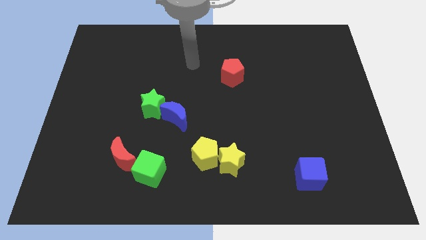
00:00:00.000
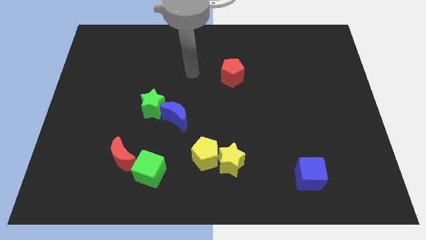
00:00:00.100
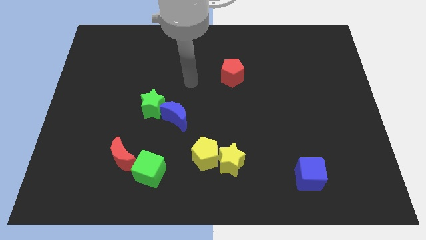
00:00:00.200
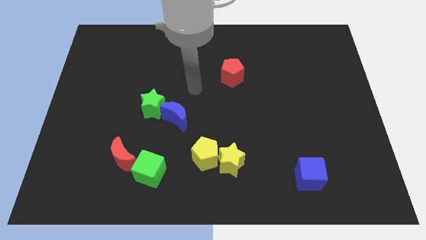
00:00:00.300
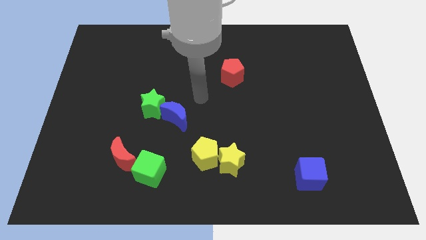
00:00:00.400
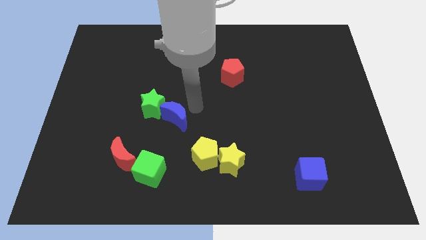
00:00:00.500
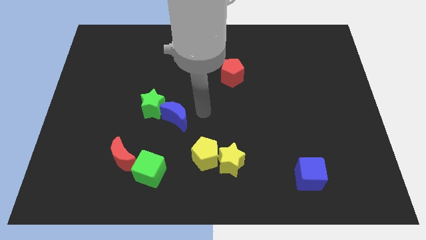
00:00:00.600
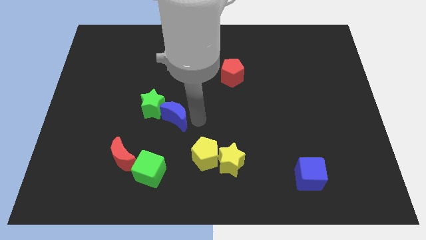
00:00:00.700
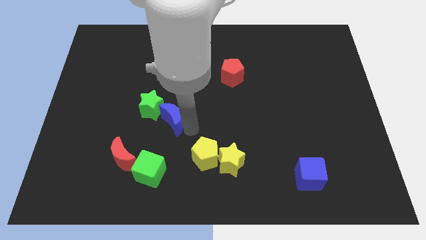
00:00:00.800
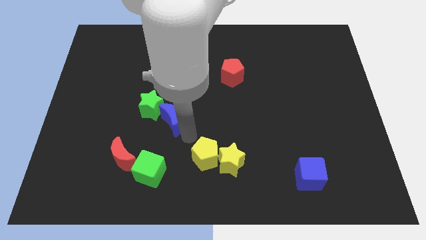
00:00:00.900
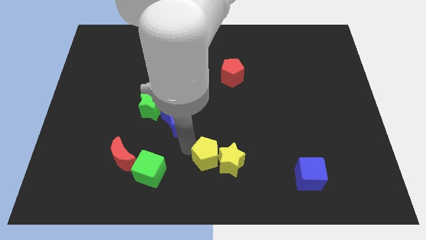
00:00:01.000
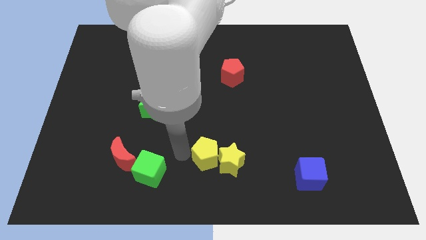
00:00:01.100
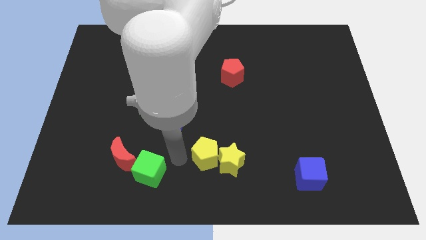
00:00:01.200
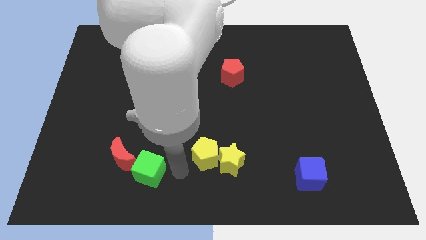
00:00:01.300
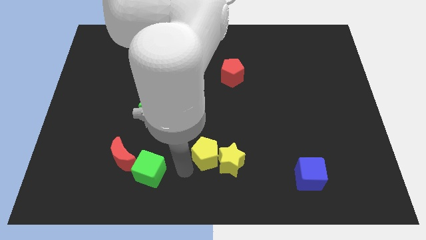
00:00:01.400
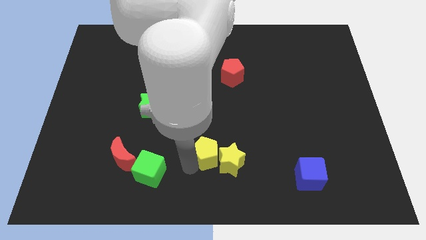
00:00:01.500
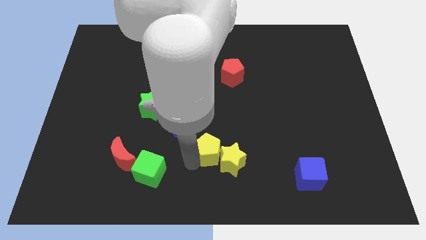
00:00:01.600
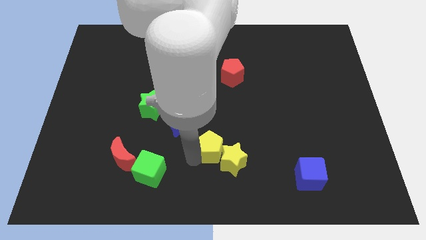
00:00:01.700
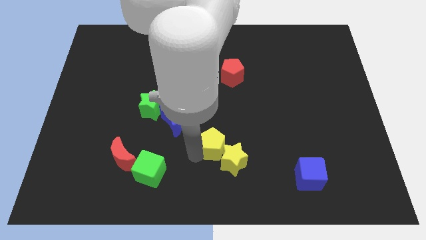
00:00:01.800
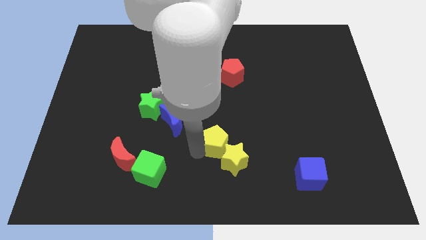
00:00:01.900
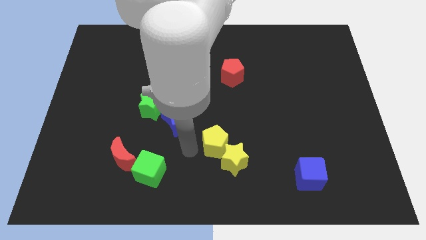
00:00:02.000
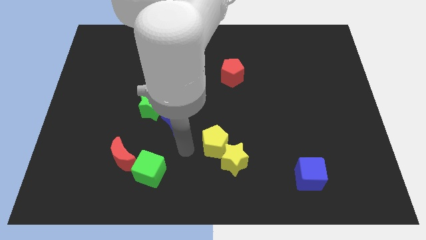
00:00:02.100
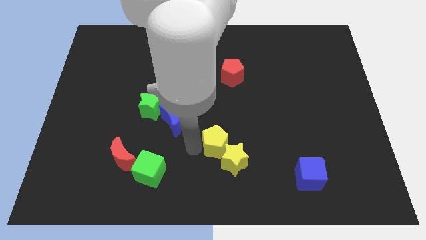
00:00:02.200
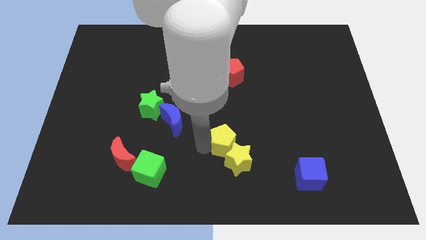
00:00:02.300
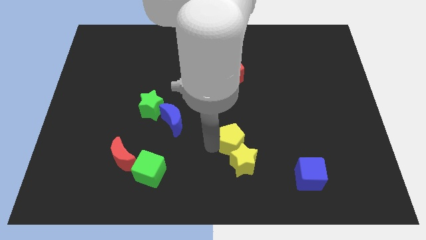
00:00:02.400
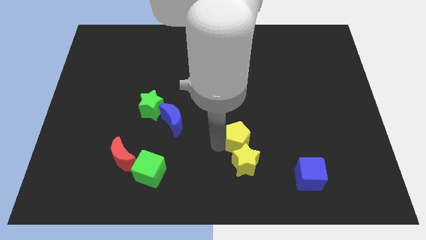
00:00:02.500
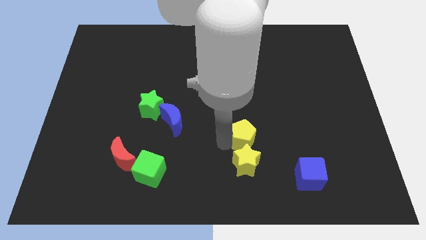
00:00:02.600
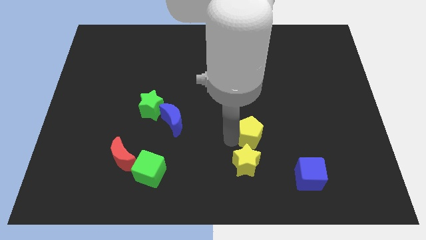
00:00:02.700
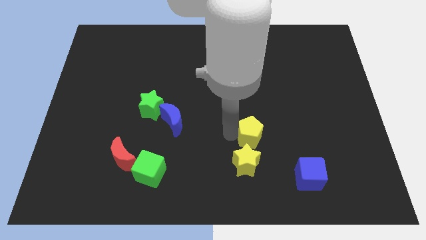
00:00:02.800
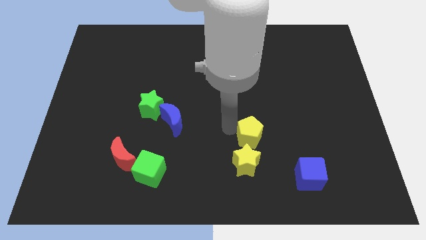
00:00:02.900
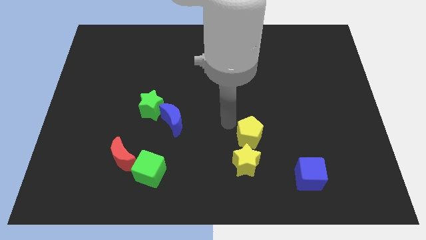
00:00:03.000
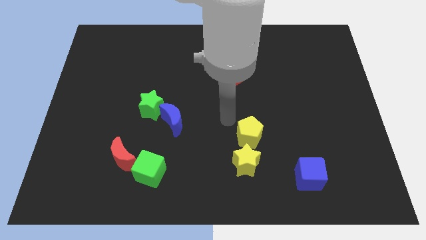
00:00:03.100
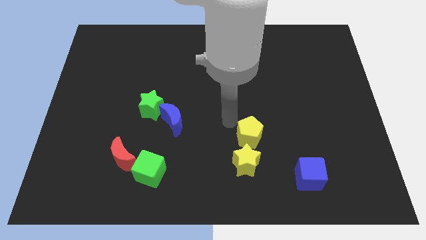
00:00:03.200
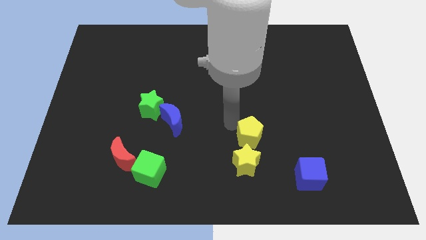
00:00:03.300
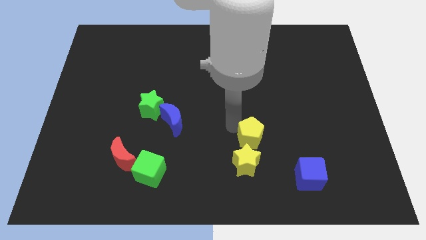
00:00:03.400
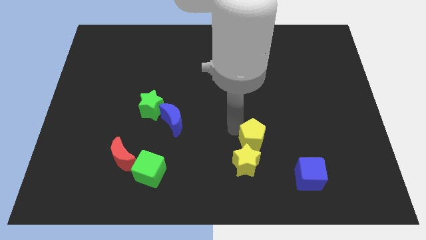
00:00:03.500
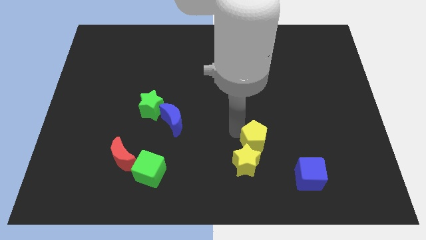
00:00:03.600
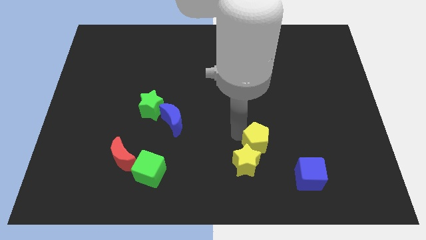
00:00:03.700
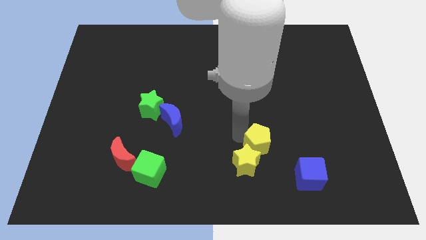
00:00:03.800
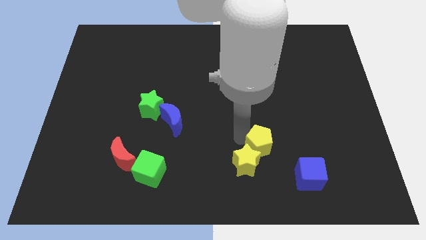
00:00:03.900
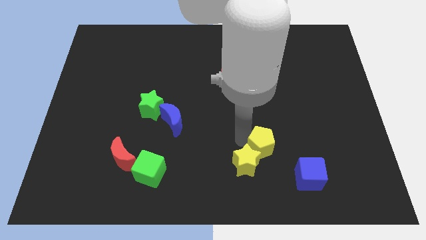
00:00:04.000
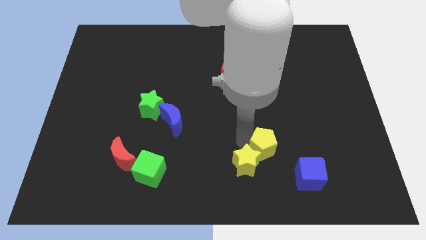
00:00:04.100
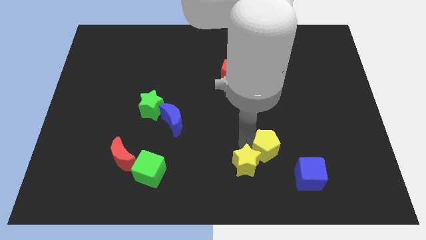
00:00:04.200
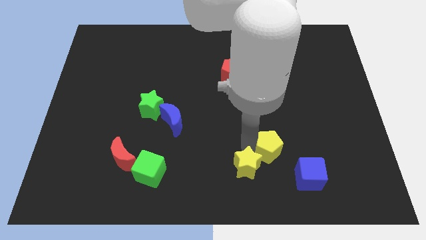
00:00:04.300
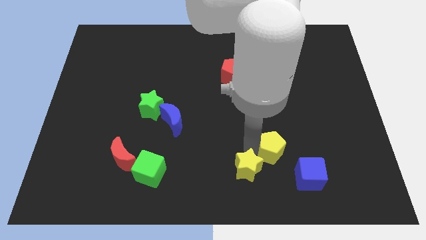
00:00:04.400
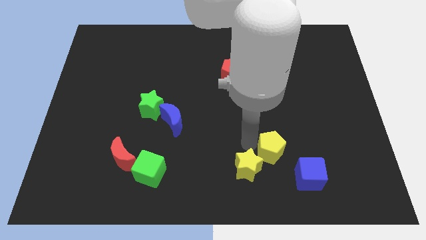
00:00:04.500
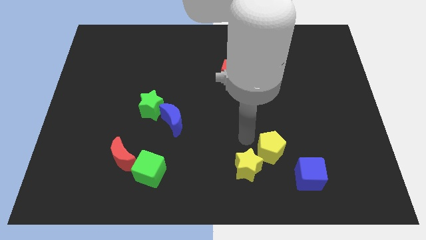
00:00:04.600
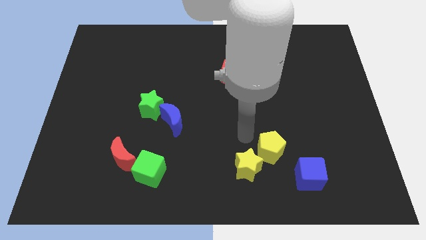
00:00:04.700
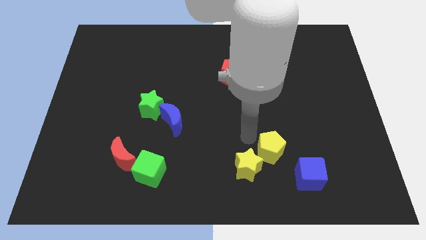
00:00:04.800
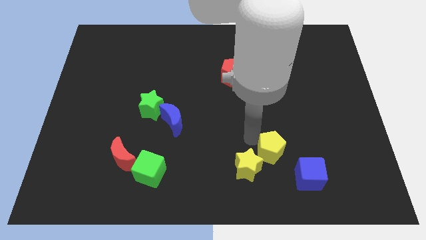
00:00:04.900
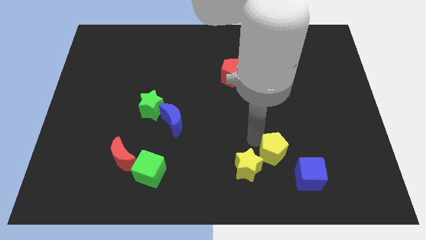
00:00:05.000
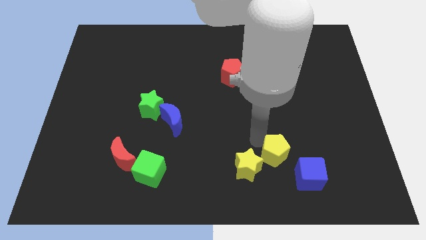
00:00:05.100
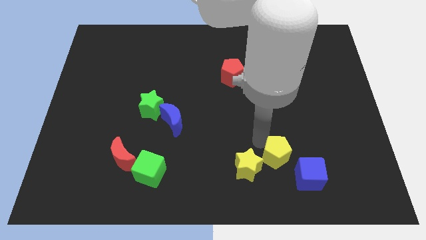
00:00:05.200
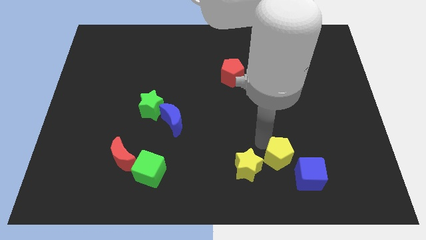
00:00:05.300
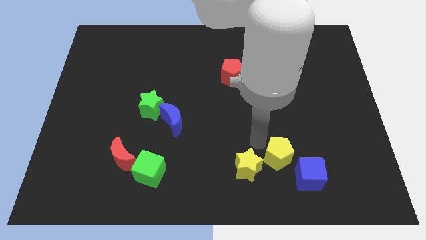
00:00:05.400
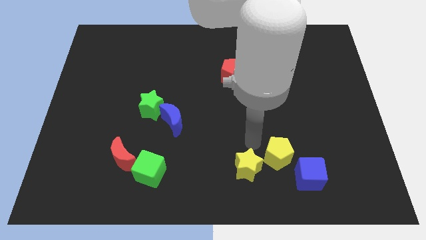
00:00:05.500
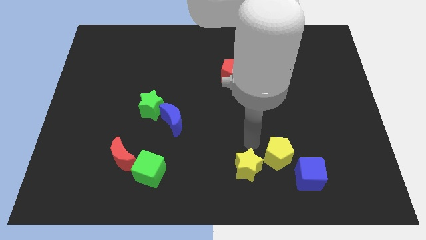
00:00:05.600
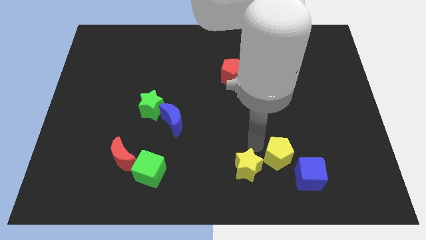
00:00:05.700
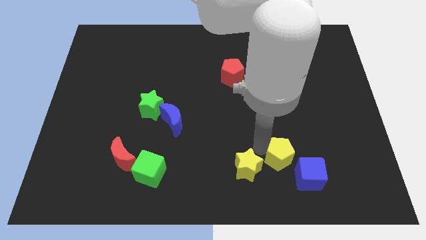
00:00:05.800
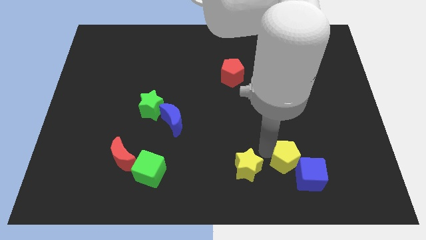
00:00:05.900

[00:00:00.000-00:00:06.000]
move the yellow pentagon towards the blue cube
